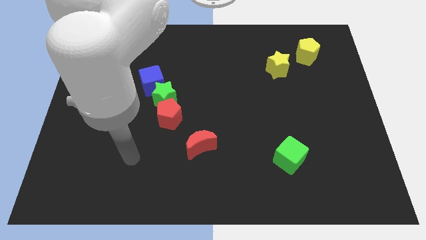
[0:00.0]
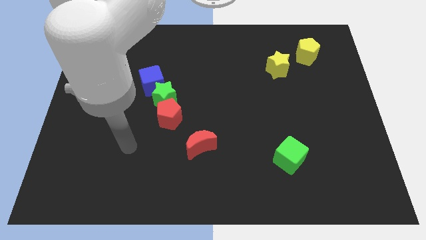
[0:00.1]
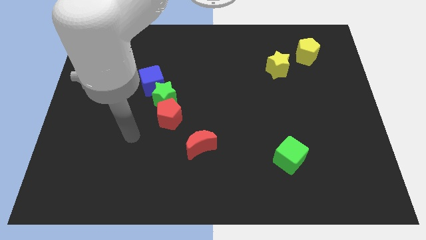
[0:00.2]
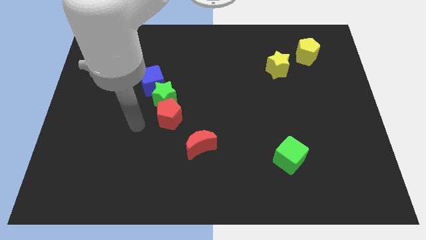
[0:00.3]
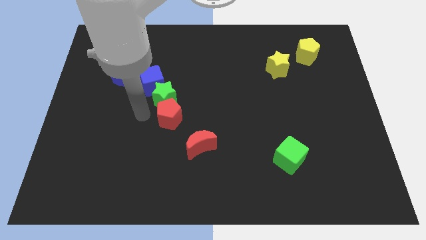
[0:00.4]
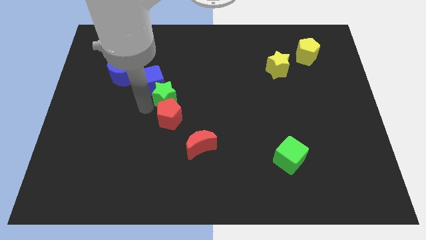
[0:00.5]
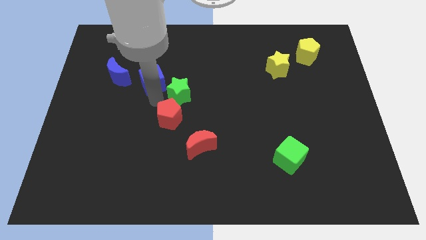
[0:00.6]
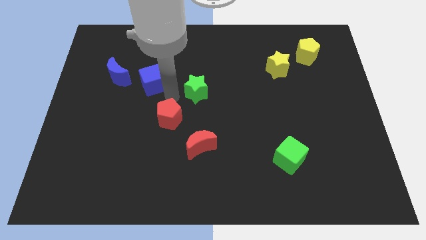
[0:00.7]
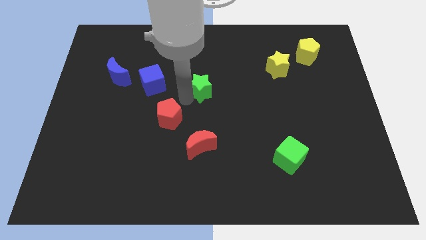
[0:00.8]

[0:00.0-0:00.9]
move the red pentagon away from the green star

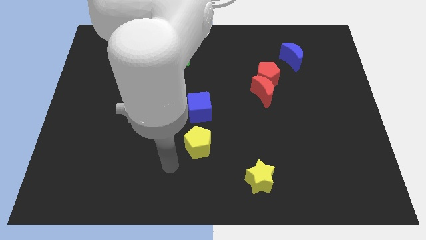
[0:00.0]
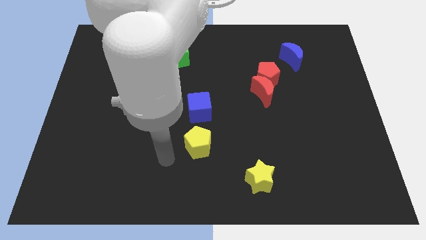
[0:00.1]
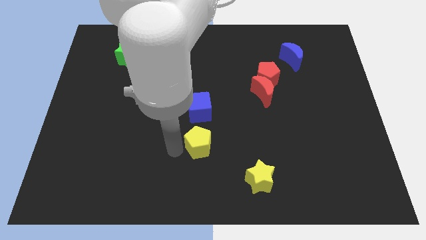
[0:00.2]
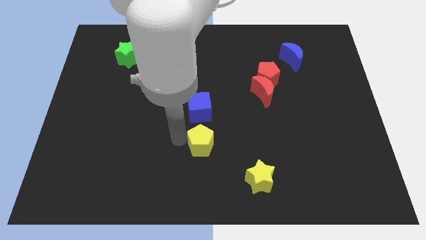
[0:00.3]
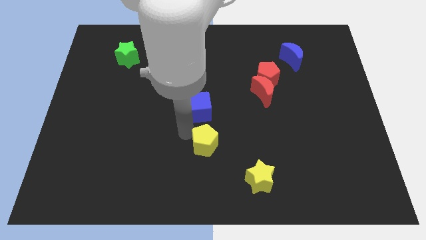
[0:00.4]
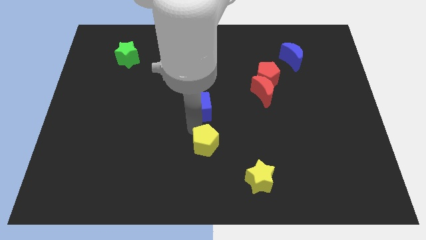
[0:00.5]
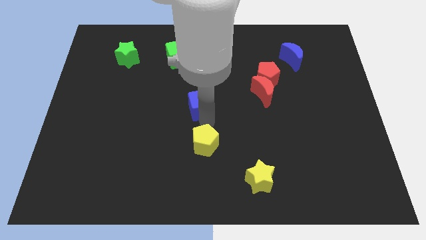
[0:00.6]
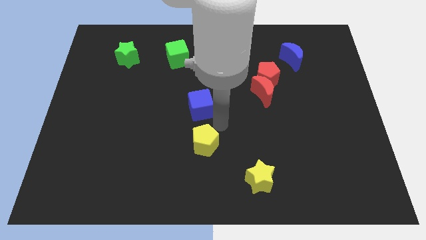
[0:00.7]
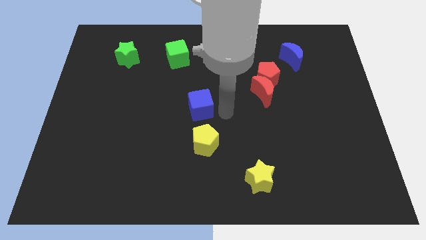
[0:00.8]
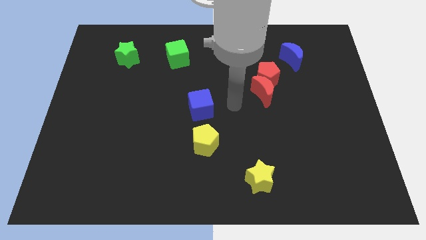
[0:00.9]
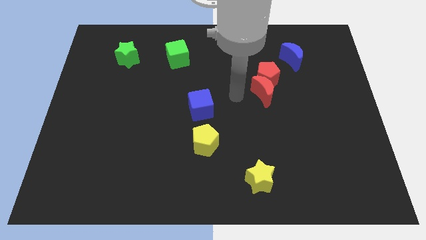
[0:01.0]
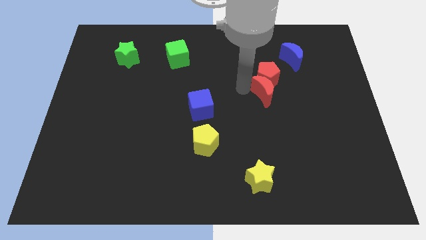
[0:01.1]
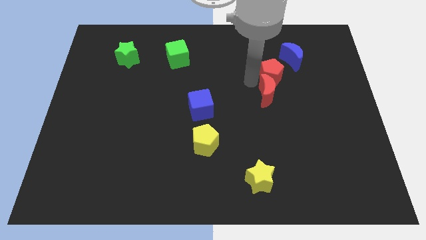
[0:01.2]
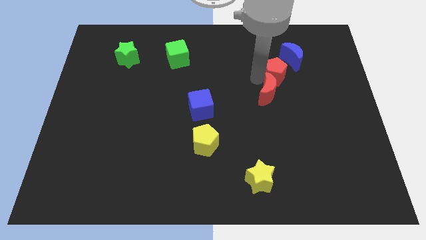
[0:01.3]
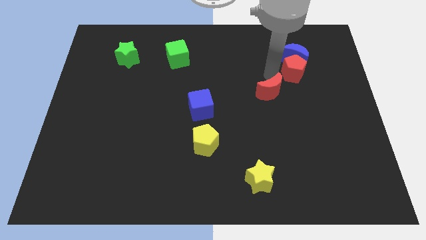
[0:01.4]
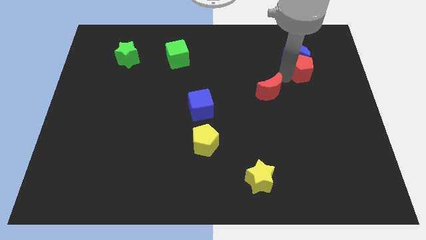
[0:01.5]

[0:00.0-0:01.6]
pull the red moon apart from the red pentagon

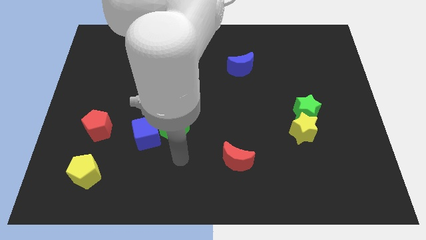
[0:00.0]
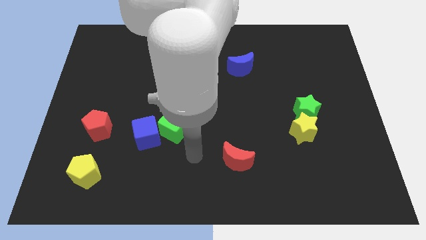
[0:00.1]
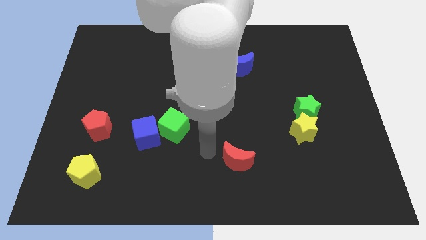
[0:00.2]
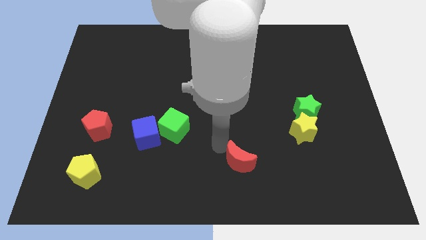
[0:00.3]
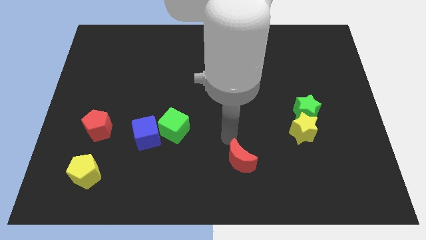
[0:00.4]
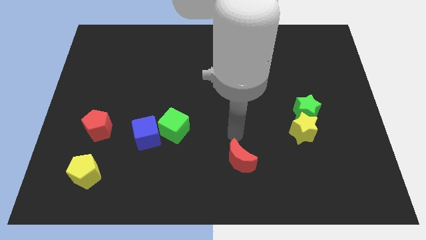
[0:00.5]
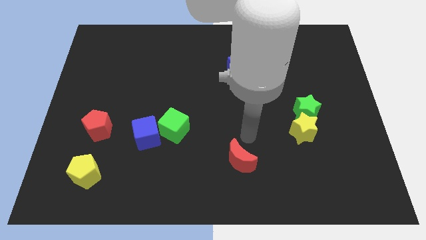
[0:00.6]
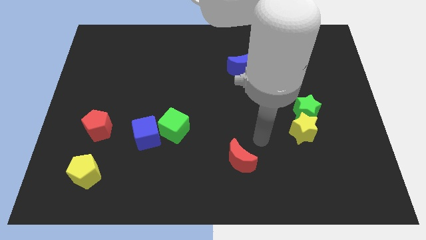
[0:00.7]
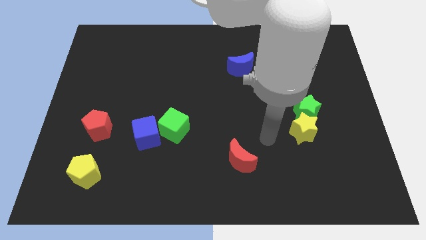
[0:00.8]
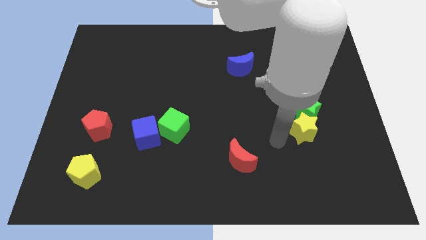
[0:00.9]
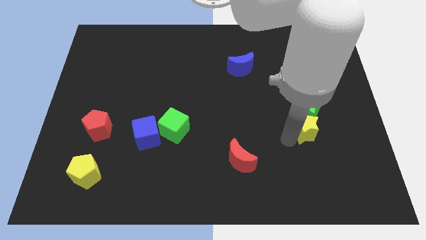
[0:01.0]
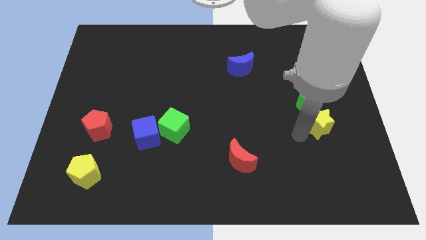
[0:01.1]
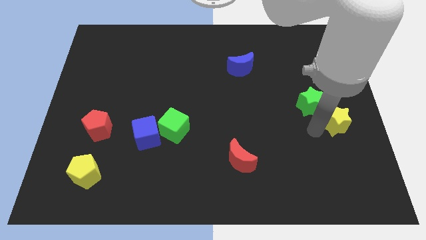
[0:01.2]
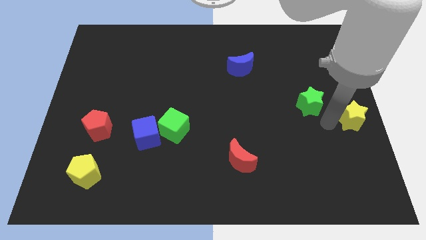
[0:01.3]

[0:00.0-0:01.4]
separate the green star from the yellow star

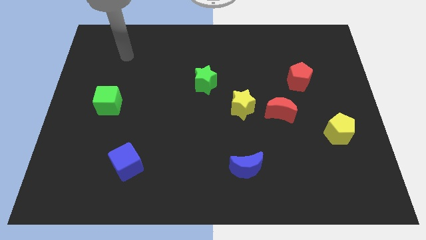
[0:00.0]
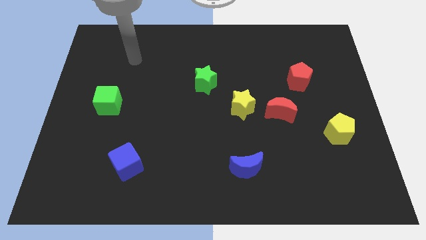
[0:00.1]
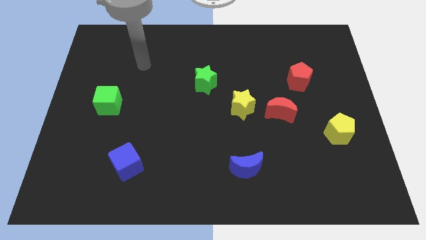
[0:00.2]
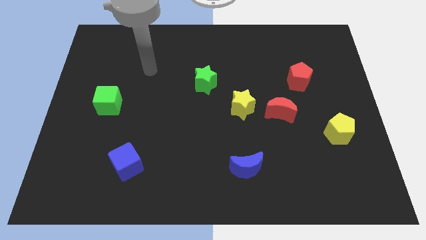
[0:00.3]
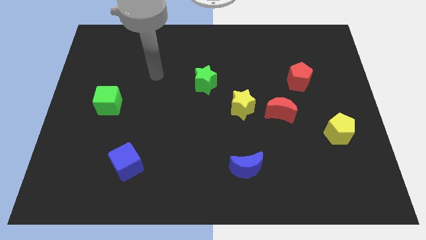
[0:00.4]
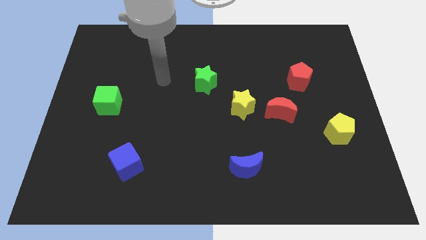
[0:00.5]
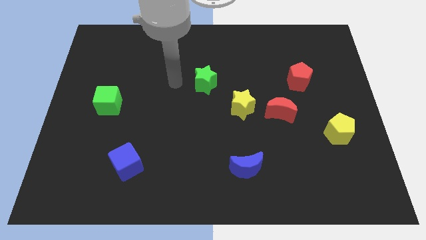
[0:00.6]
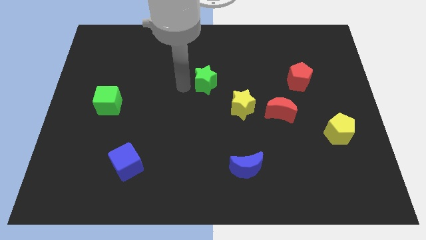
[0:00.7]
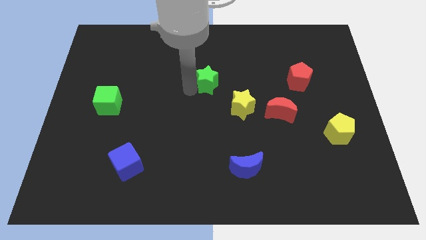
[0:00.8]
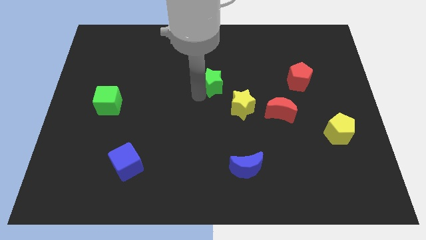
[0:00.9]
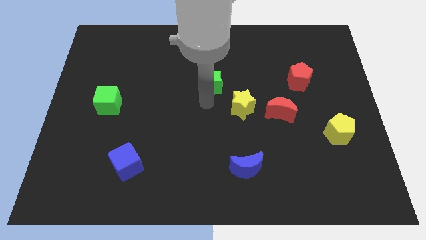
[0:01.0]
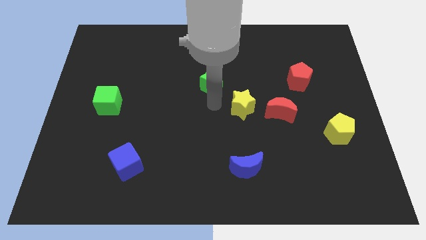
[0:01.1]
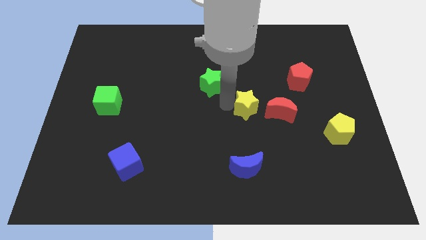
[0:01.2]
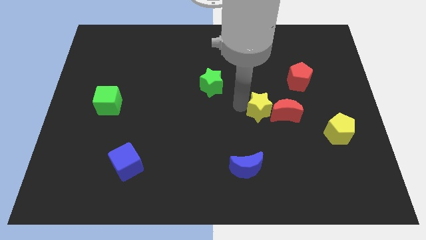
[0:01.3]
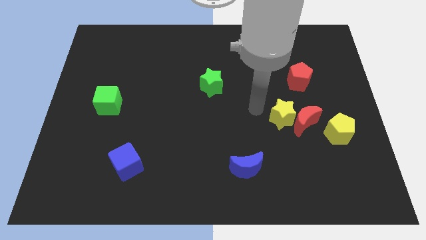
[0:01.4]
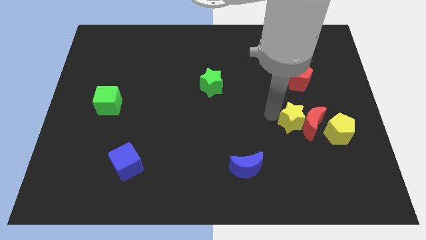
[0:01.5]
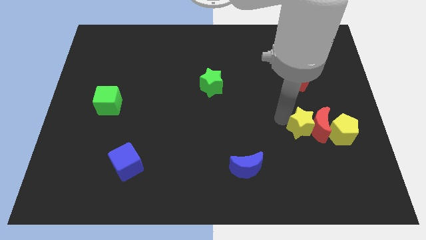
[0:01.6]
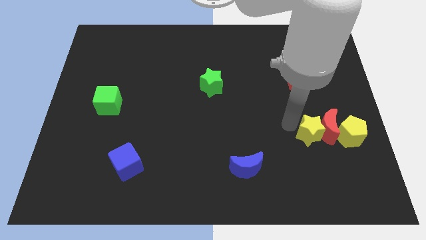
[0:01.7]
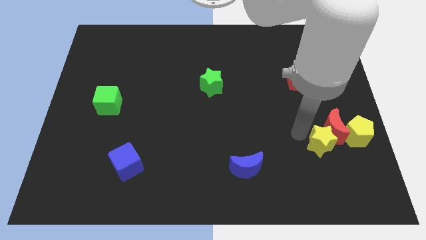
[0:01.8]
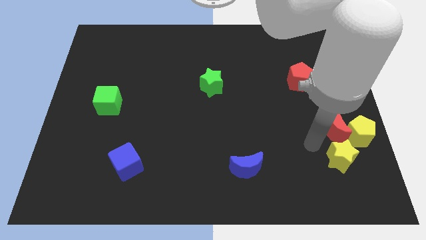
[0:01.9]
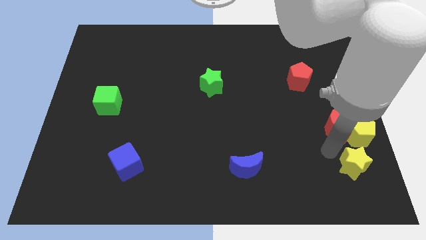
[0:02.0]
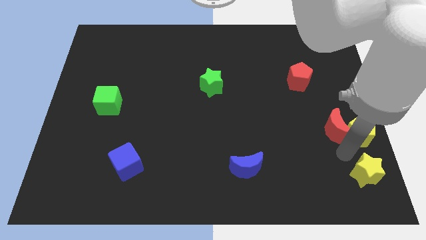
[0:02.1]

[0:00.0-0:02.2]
pull the red moon apart from the yellow star

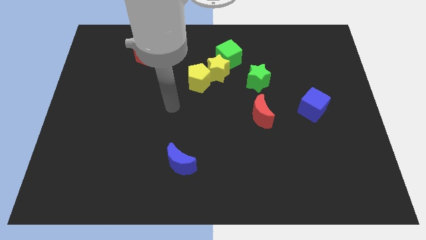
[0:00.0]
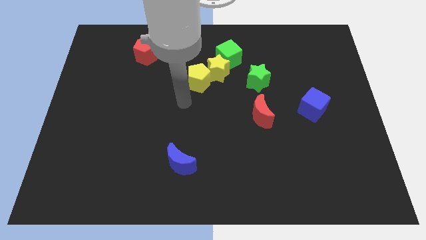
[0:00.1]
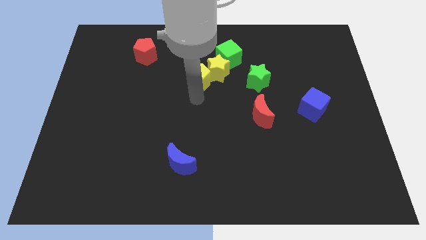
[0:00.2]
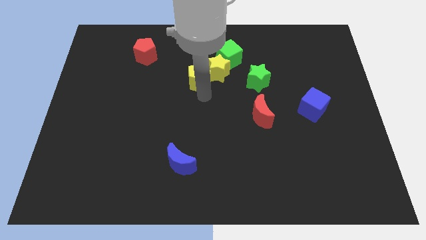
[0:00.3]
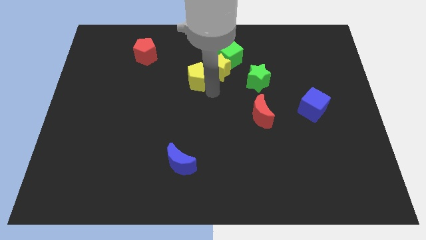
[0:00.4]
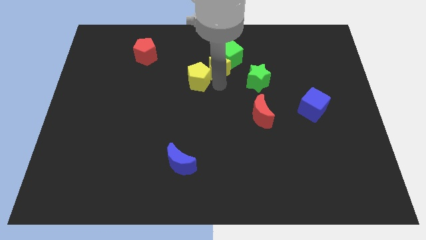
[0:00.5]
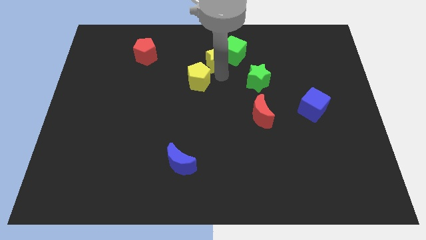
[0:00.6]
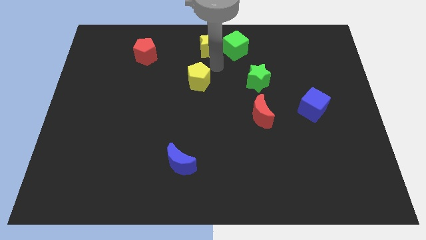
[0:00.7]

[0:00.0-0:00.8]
move the yellow pentagon away from the yellow star

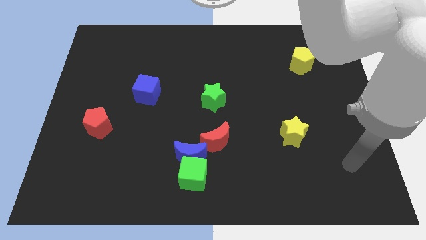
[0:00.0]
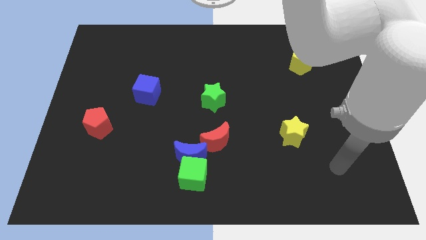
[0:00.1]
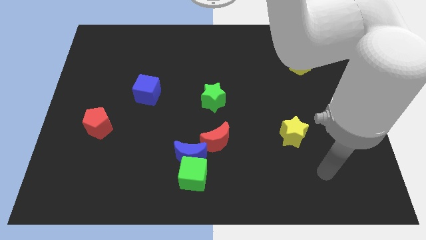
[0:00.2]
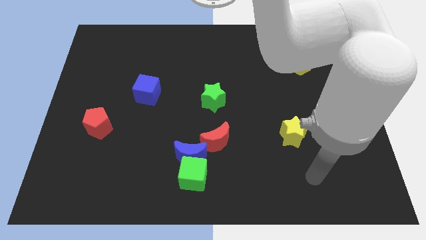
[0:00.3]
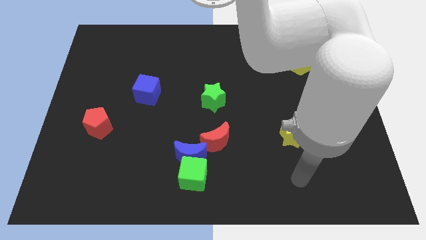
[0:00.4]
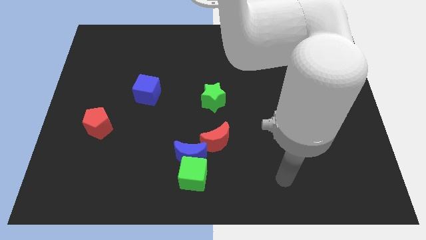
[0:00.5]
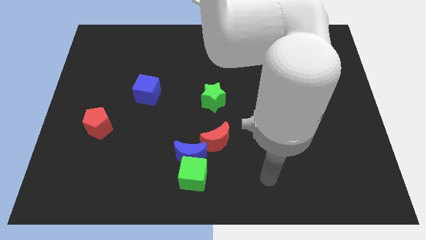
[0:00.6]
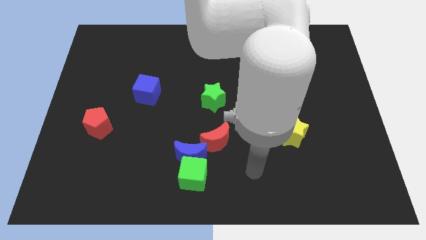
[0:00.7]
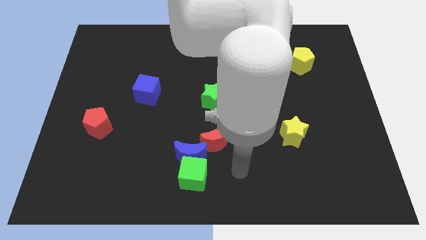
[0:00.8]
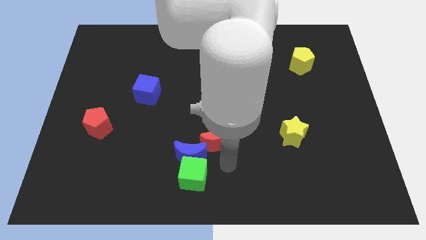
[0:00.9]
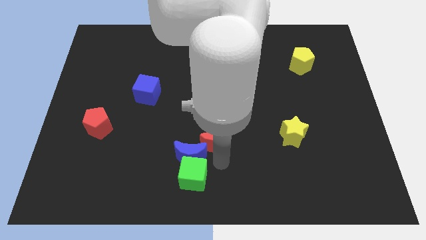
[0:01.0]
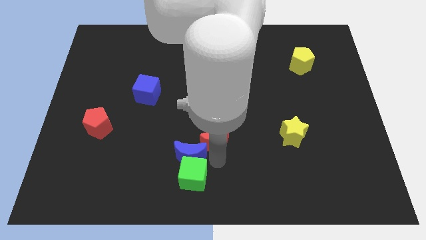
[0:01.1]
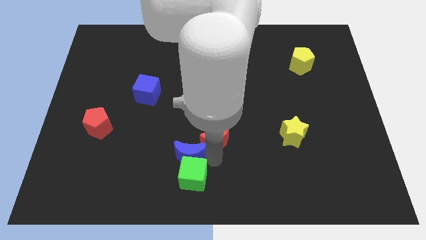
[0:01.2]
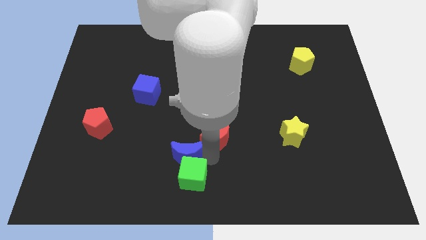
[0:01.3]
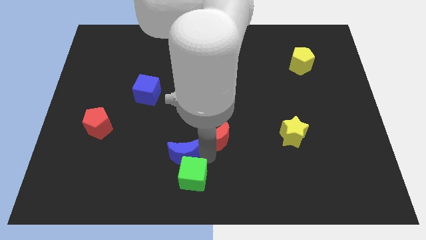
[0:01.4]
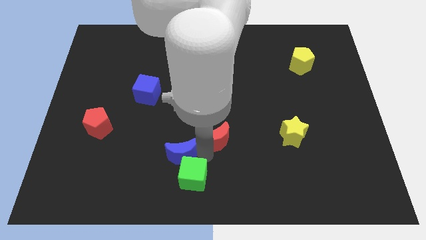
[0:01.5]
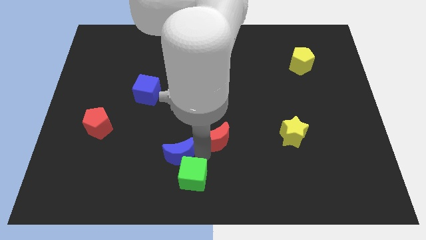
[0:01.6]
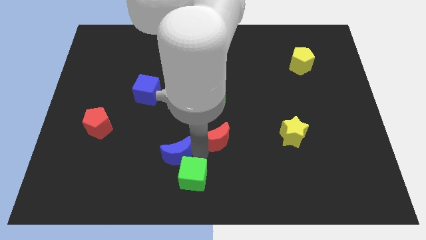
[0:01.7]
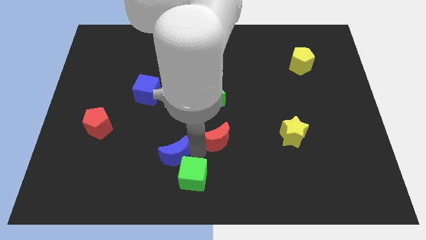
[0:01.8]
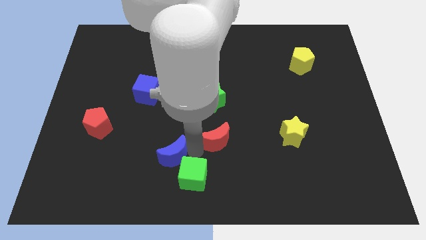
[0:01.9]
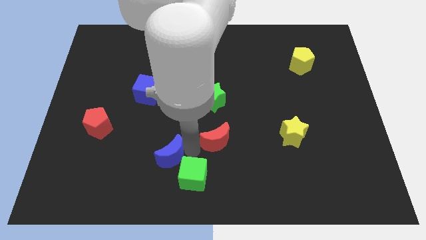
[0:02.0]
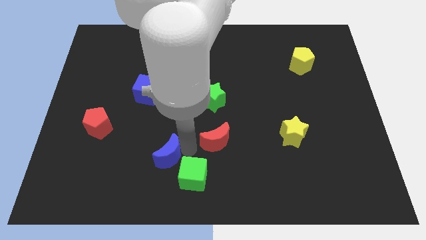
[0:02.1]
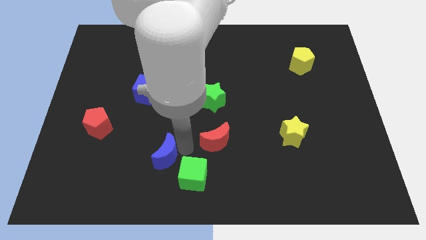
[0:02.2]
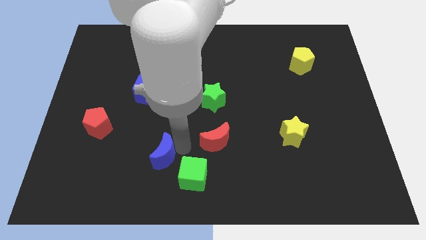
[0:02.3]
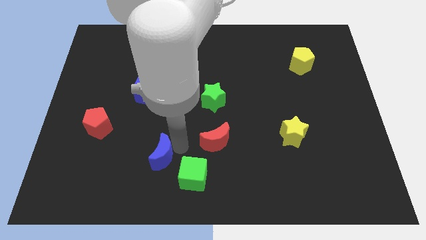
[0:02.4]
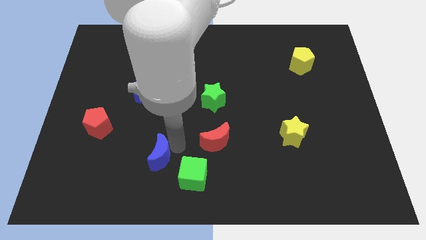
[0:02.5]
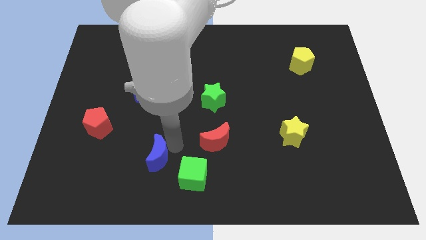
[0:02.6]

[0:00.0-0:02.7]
move the blue moon away from the green cube and red moon
